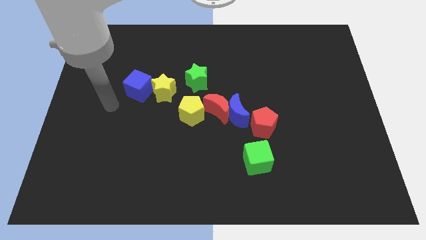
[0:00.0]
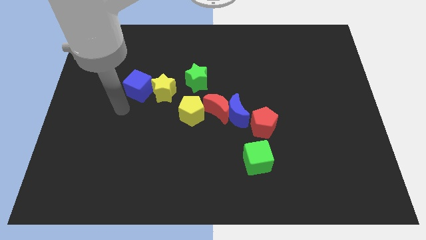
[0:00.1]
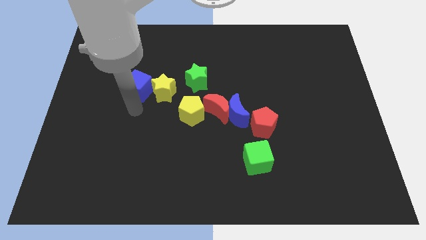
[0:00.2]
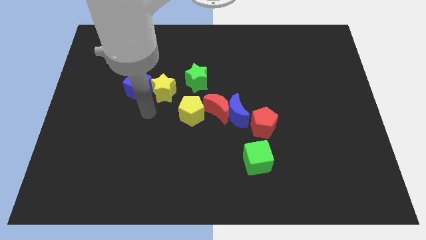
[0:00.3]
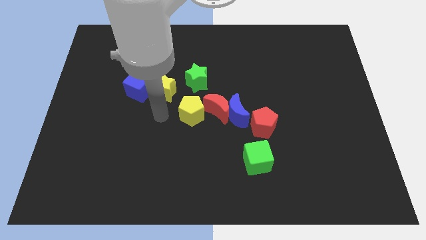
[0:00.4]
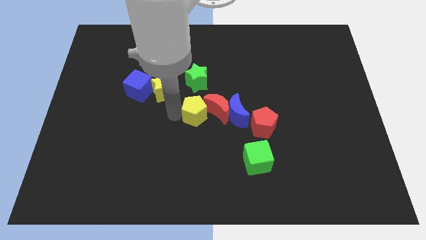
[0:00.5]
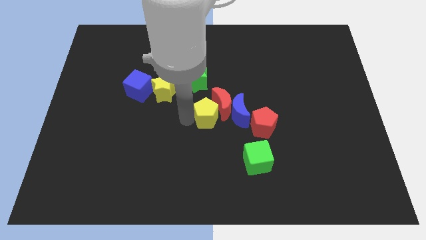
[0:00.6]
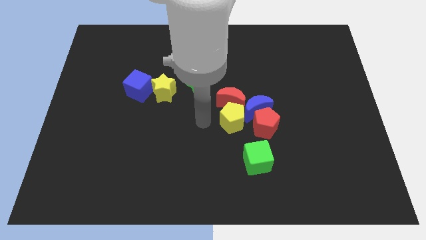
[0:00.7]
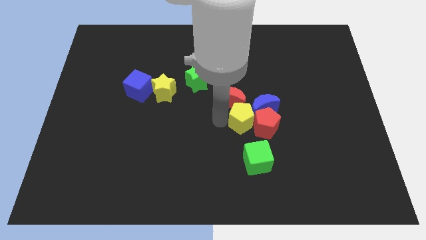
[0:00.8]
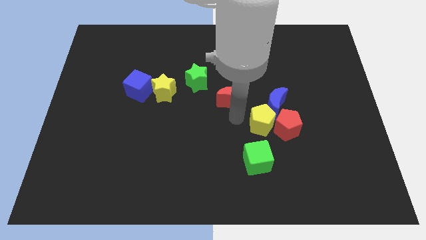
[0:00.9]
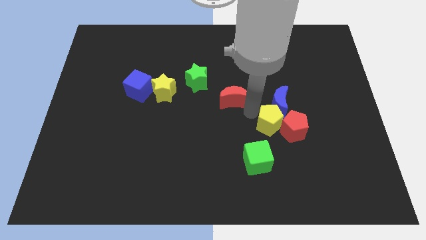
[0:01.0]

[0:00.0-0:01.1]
move the red moon away from the blue moon and yellow pentagon

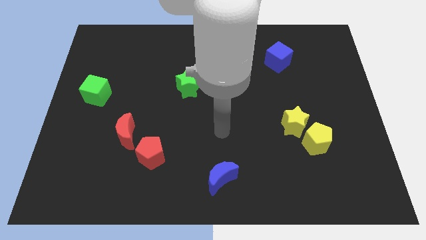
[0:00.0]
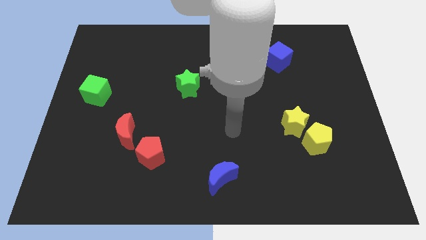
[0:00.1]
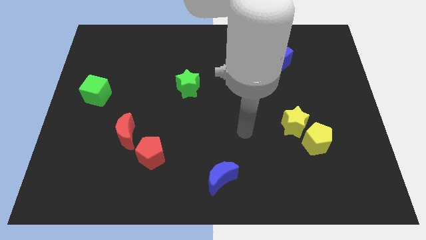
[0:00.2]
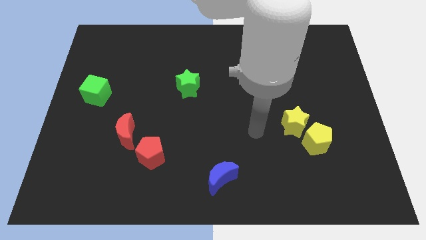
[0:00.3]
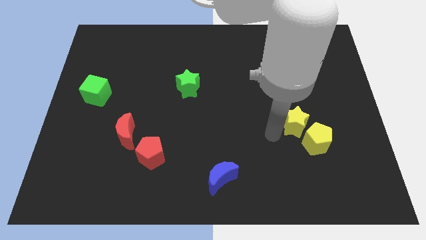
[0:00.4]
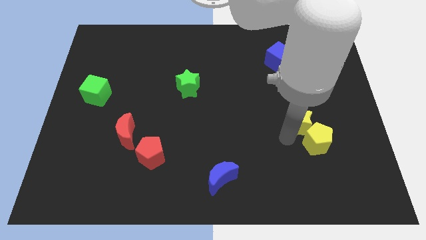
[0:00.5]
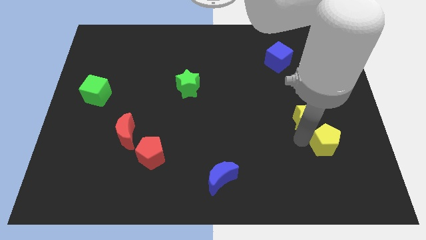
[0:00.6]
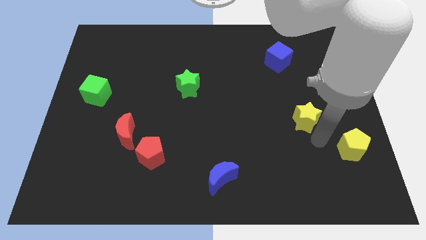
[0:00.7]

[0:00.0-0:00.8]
separate the yellow star from the yellow pentagon

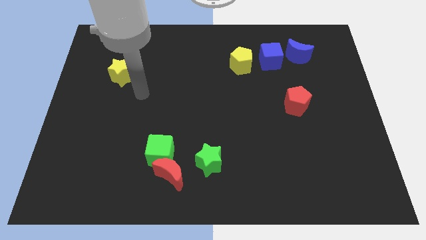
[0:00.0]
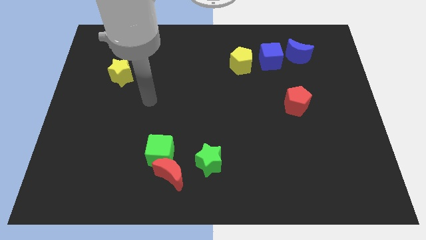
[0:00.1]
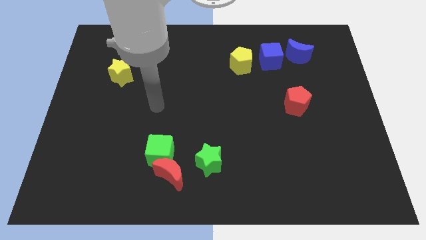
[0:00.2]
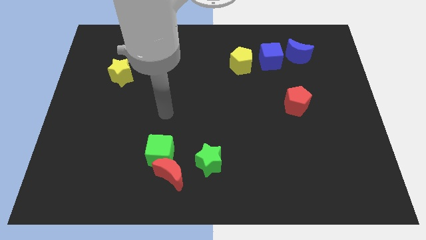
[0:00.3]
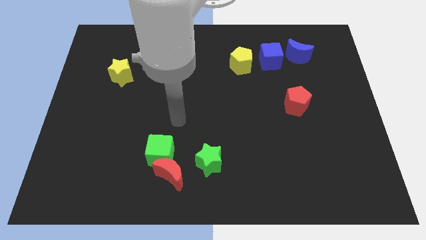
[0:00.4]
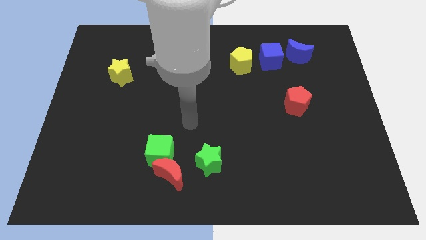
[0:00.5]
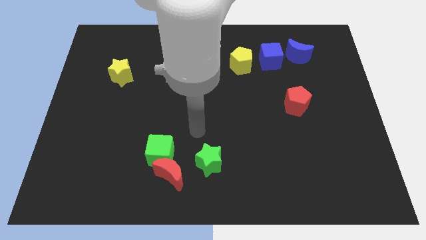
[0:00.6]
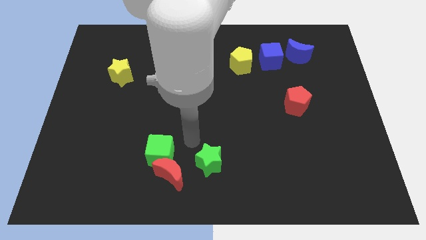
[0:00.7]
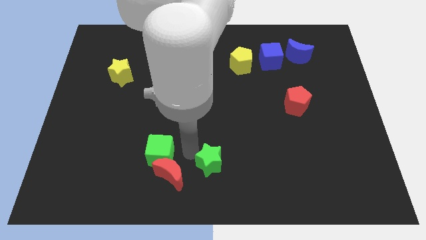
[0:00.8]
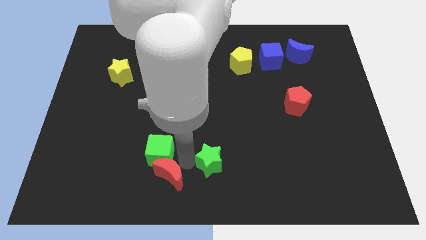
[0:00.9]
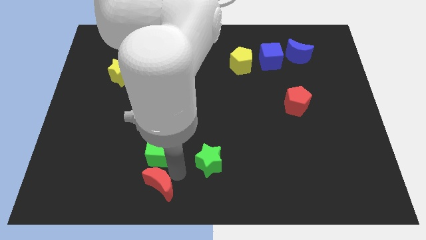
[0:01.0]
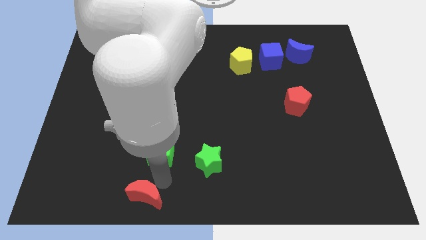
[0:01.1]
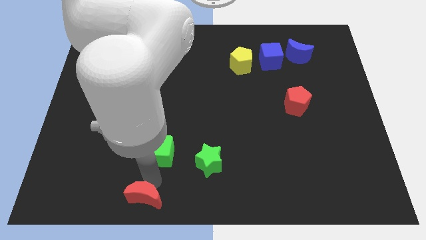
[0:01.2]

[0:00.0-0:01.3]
separate the green cube from the red moon

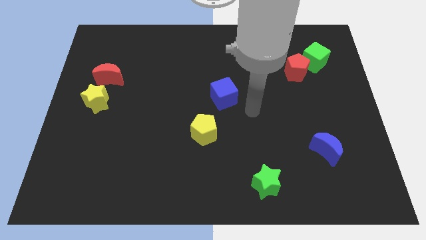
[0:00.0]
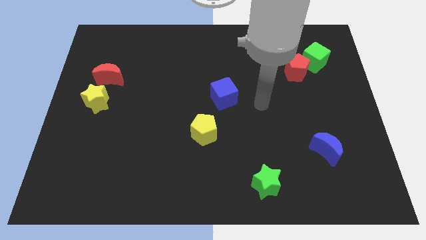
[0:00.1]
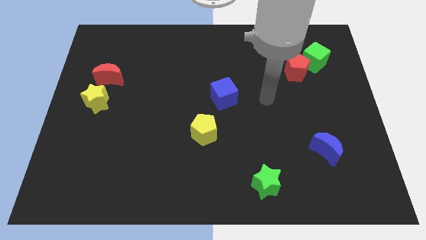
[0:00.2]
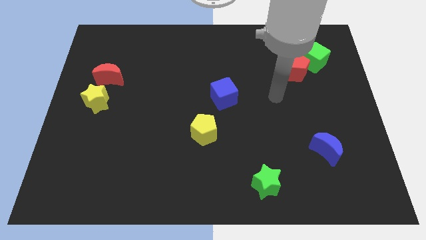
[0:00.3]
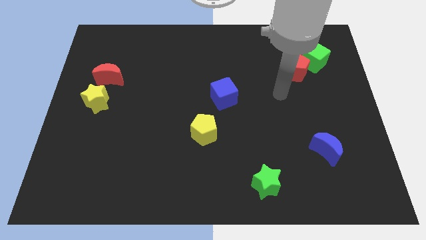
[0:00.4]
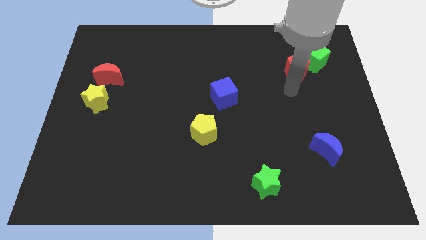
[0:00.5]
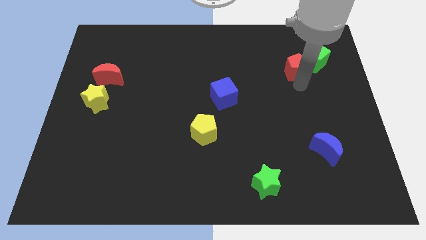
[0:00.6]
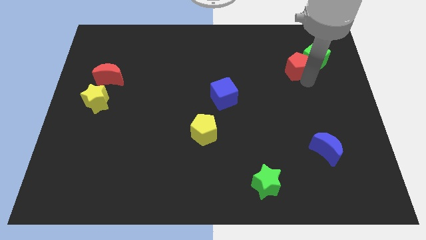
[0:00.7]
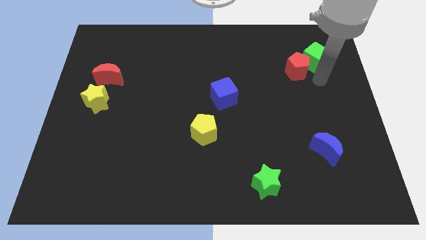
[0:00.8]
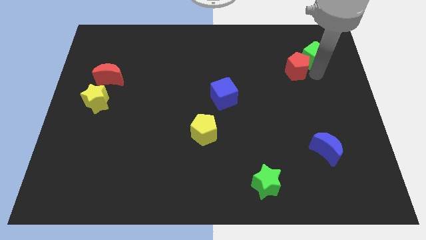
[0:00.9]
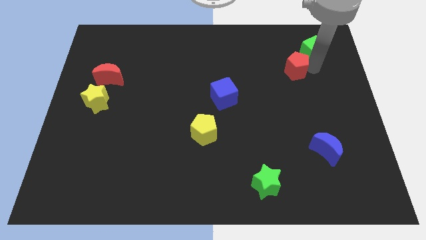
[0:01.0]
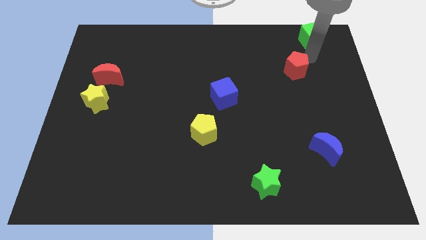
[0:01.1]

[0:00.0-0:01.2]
pull the red pentagon apart from the green cube

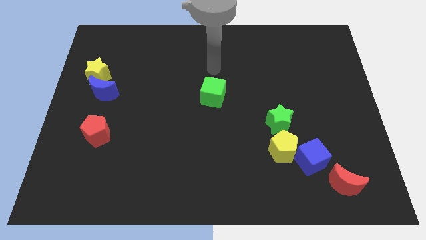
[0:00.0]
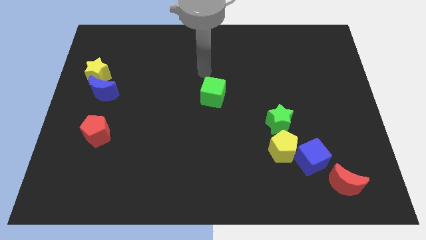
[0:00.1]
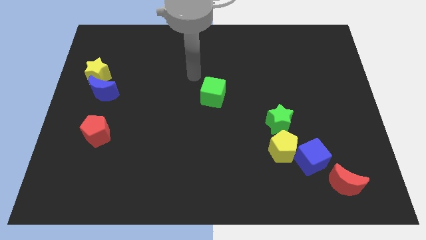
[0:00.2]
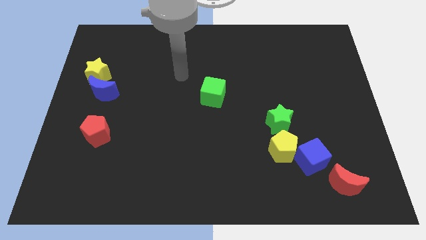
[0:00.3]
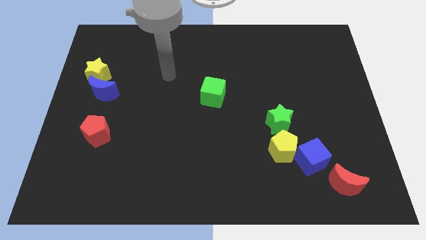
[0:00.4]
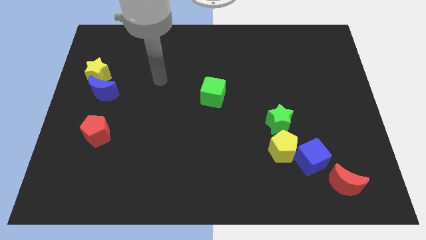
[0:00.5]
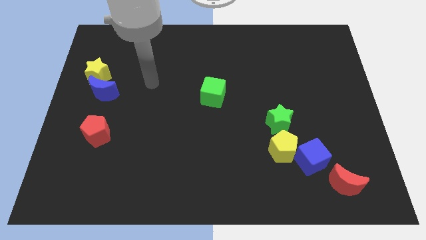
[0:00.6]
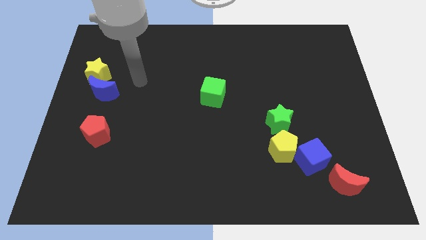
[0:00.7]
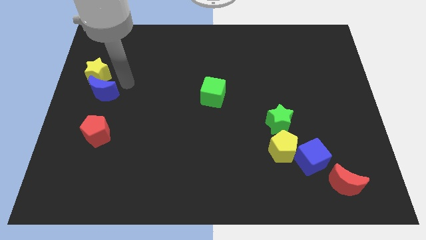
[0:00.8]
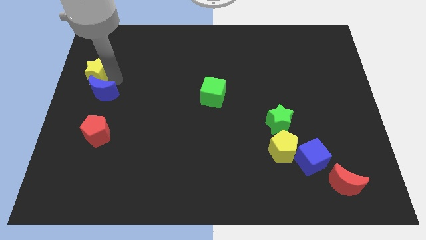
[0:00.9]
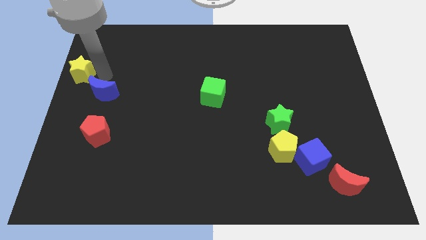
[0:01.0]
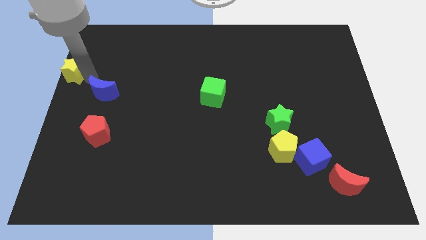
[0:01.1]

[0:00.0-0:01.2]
pull the blue moon apart from the yellow star

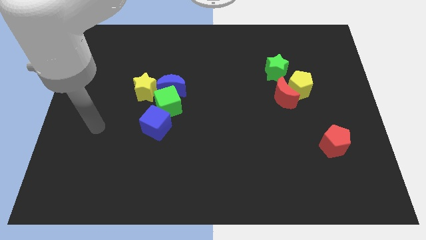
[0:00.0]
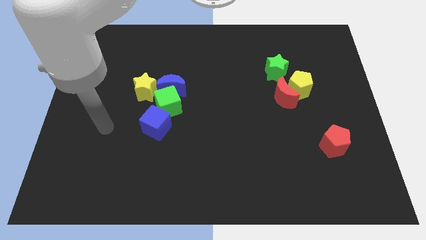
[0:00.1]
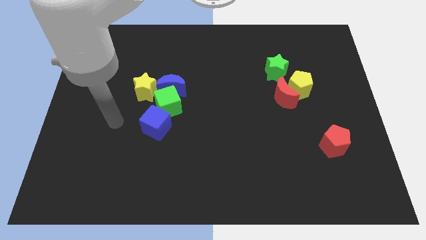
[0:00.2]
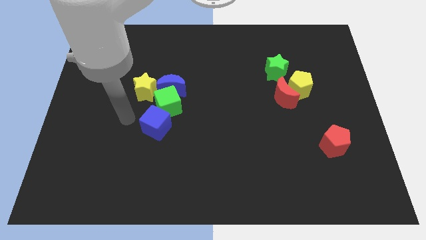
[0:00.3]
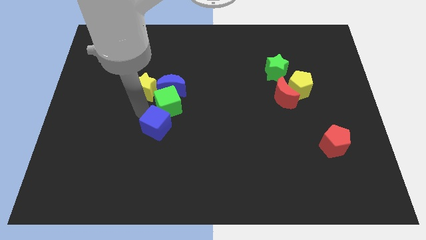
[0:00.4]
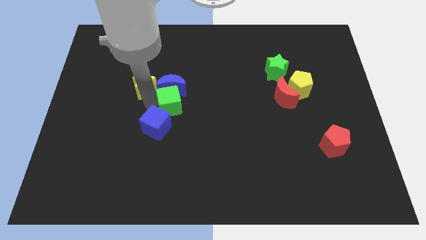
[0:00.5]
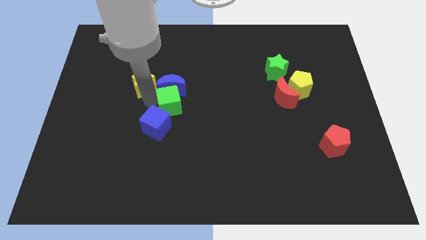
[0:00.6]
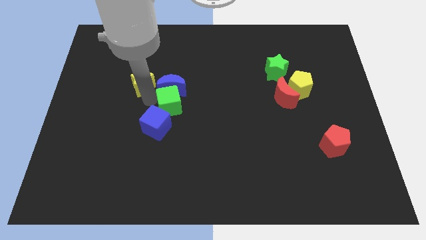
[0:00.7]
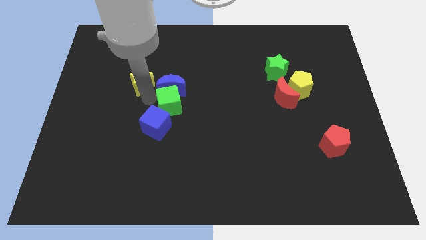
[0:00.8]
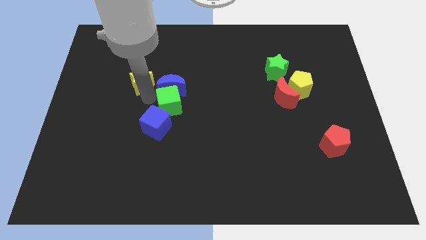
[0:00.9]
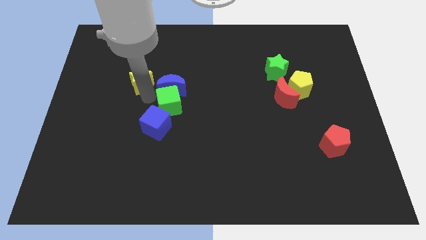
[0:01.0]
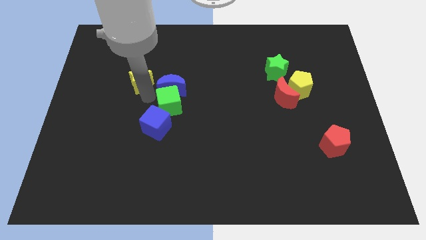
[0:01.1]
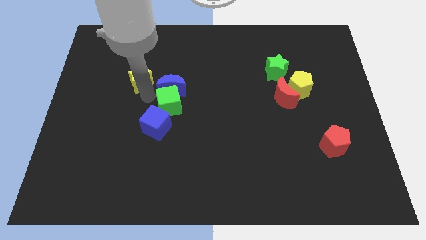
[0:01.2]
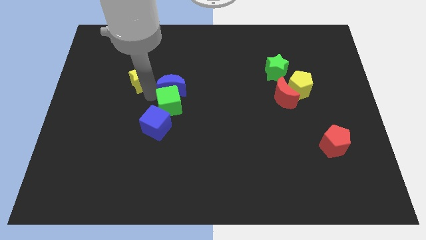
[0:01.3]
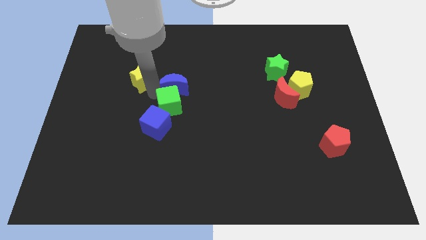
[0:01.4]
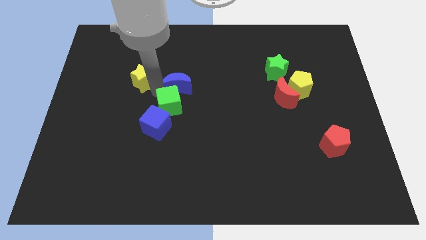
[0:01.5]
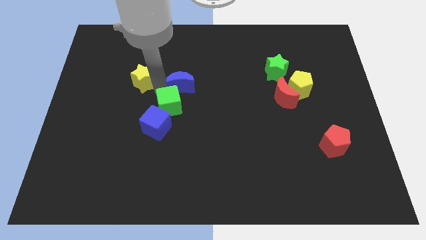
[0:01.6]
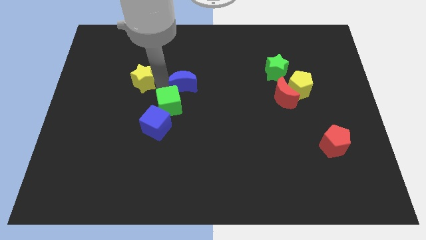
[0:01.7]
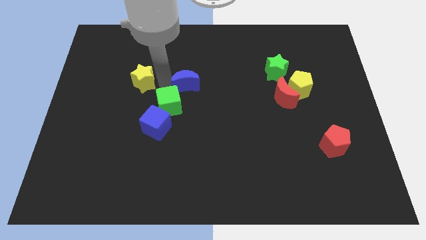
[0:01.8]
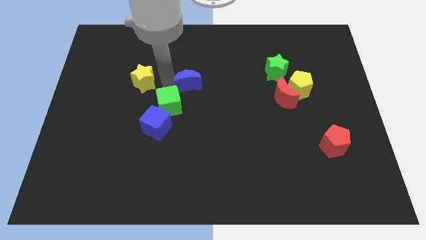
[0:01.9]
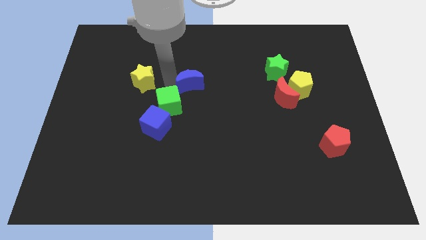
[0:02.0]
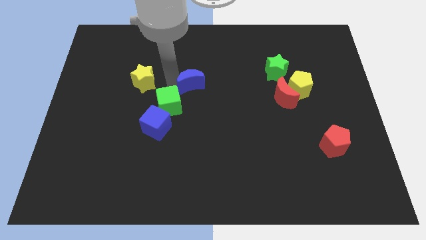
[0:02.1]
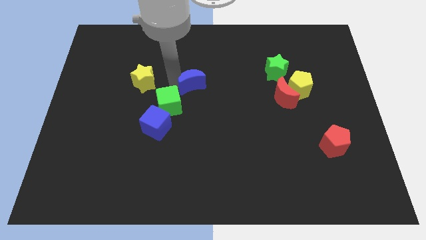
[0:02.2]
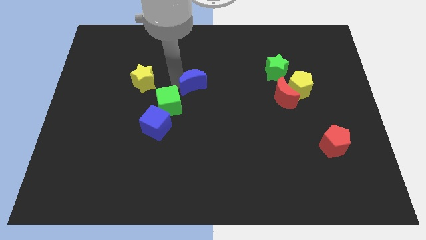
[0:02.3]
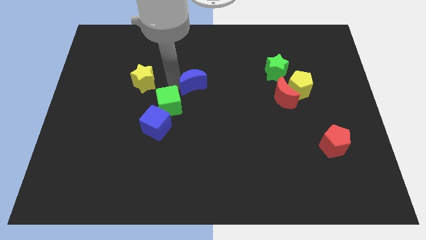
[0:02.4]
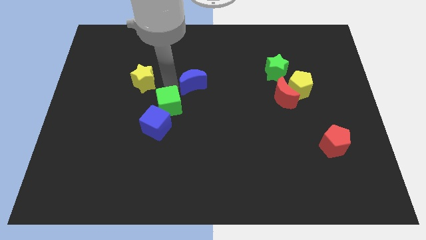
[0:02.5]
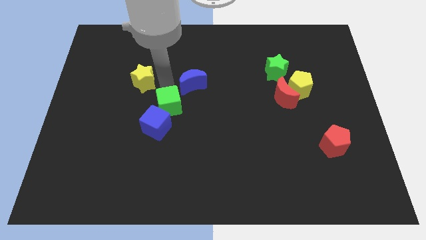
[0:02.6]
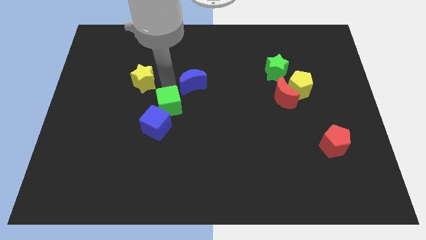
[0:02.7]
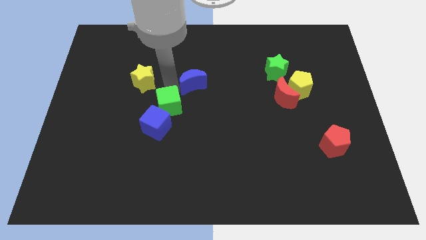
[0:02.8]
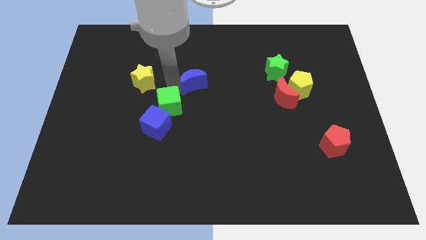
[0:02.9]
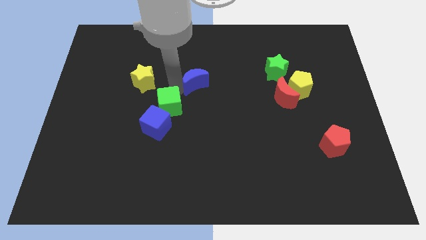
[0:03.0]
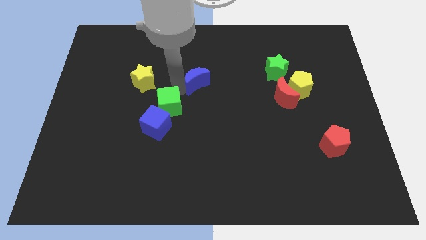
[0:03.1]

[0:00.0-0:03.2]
move the blue moon away from the green cube and yellow star

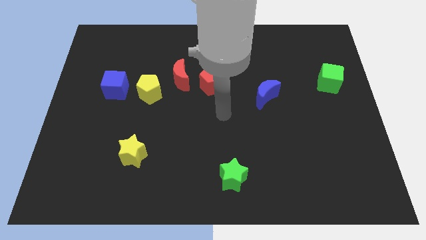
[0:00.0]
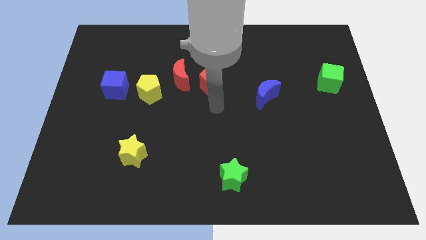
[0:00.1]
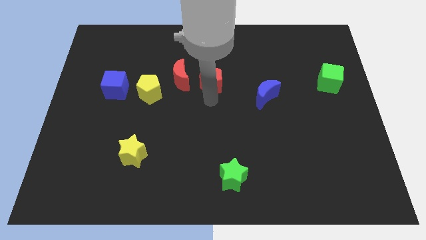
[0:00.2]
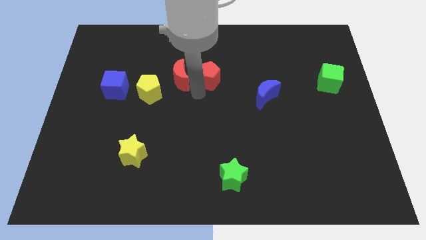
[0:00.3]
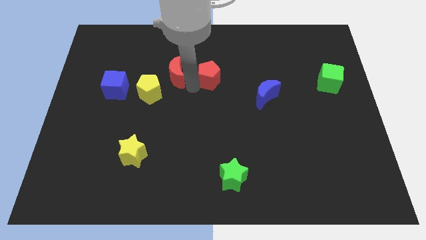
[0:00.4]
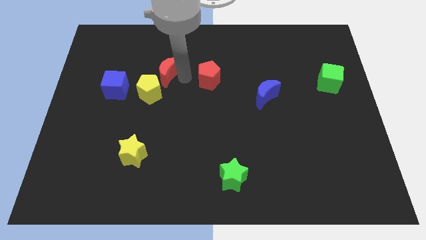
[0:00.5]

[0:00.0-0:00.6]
separate the red pentagon from the red moon

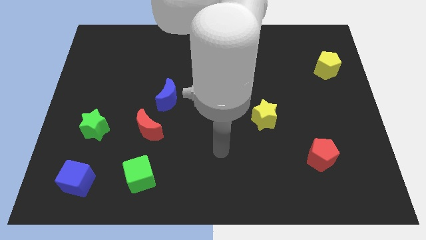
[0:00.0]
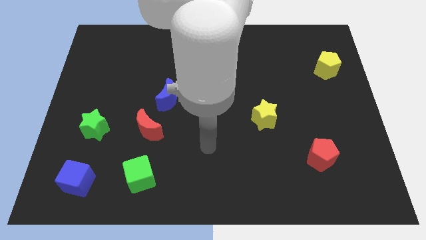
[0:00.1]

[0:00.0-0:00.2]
move the red moon away from the blue moon
